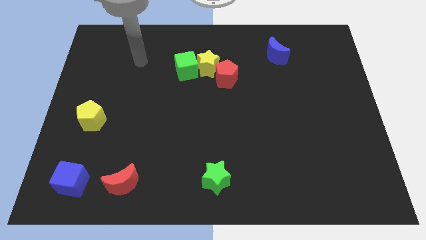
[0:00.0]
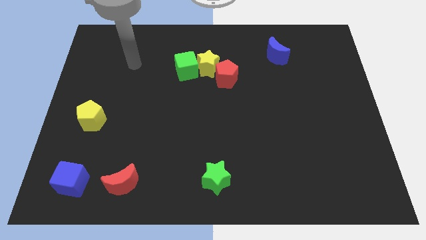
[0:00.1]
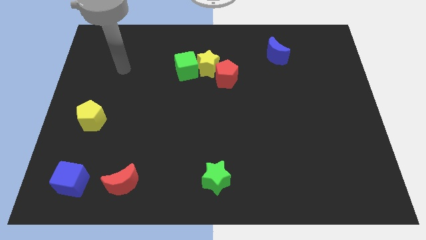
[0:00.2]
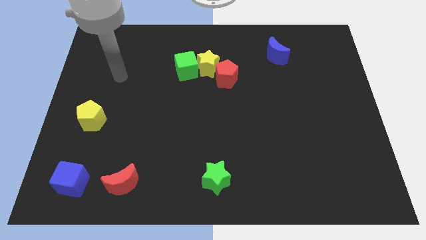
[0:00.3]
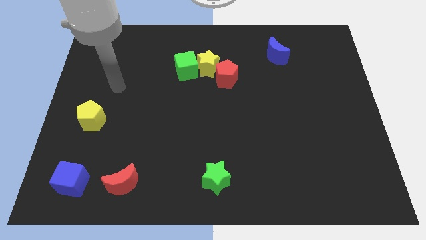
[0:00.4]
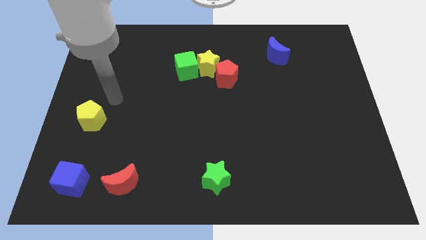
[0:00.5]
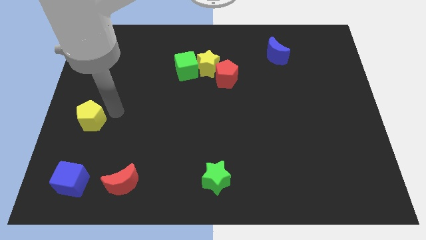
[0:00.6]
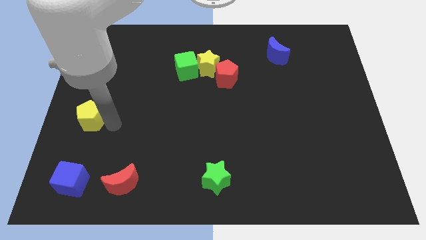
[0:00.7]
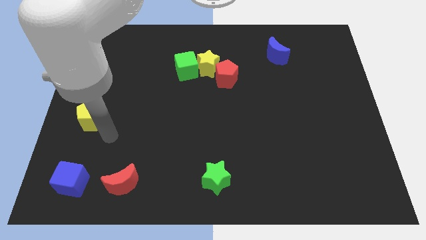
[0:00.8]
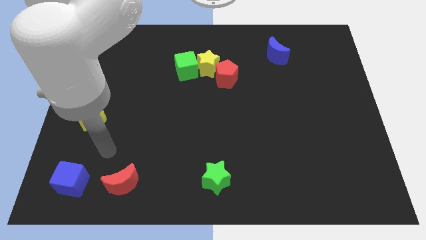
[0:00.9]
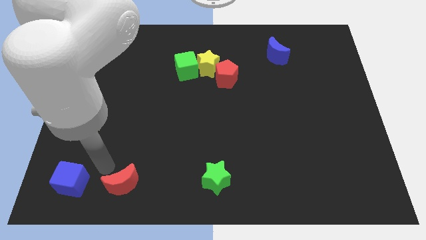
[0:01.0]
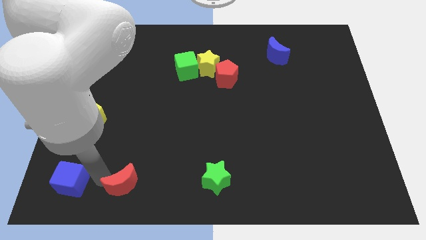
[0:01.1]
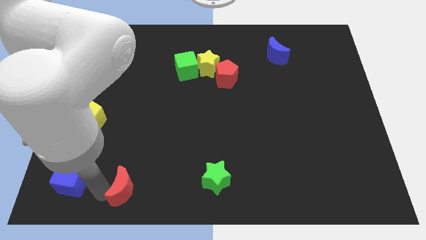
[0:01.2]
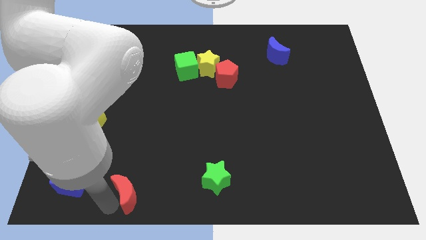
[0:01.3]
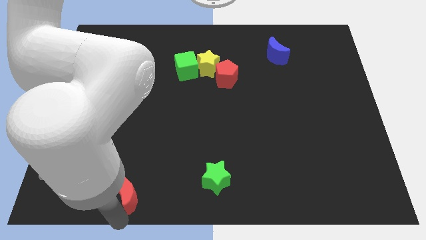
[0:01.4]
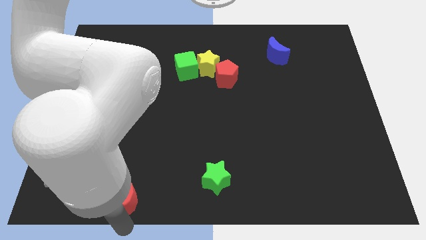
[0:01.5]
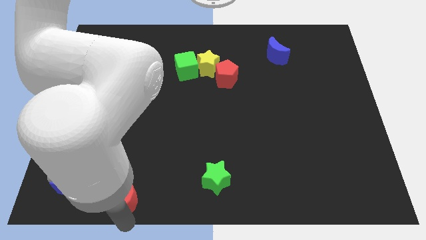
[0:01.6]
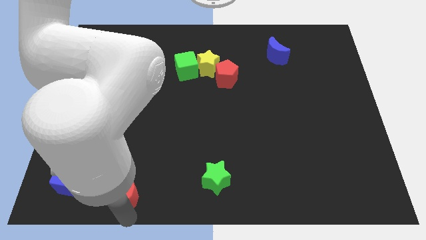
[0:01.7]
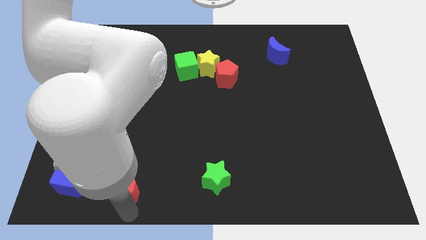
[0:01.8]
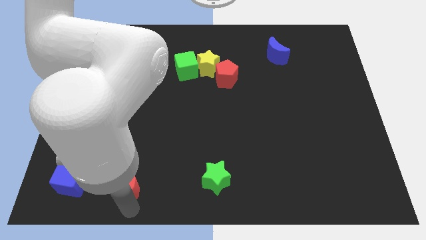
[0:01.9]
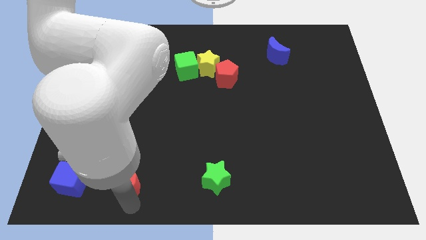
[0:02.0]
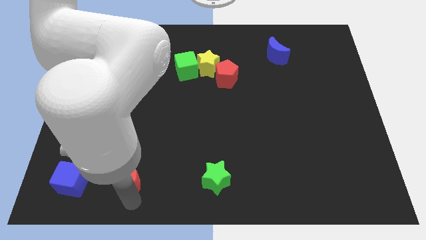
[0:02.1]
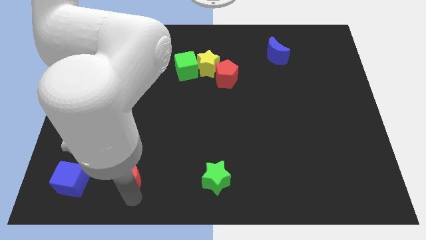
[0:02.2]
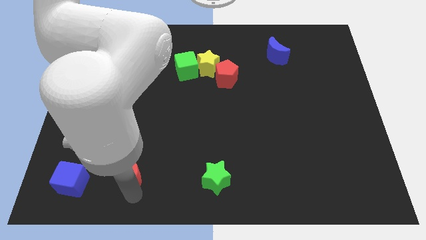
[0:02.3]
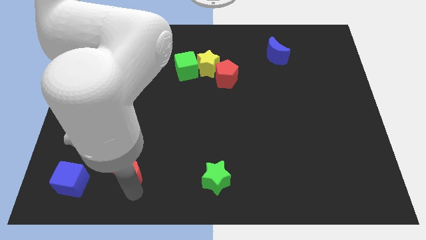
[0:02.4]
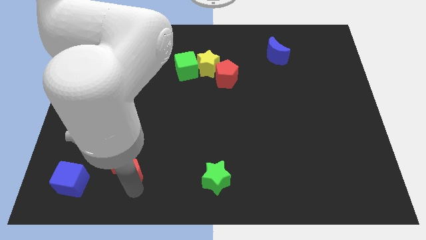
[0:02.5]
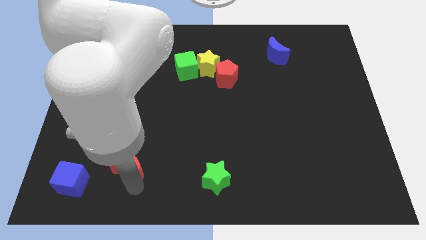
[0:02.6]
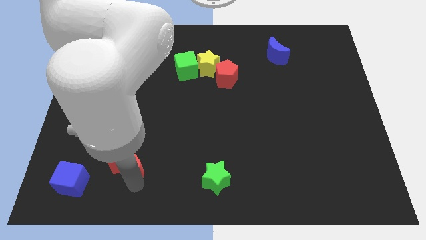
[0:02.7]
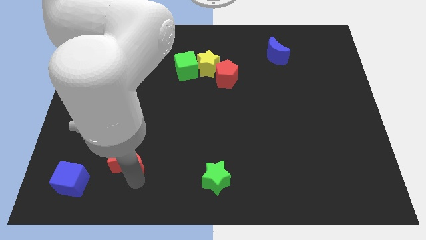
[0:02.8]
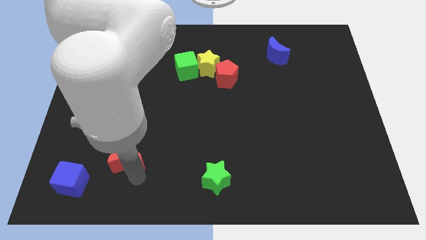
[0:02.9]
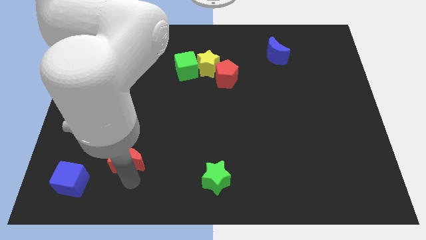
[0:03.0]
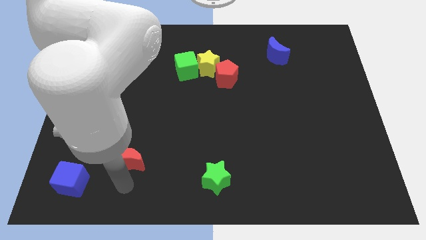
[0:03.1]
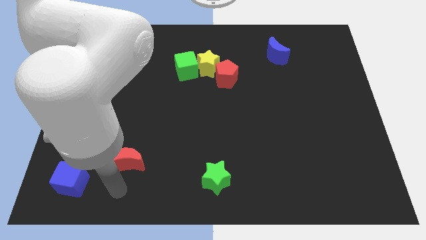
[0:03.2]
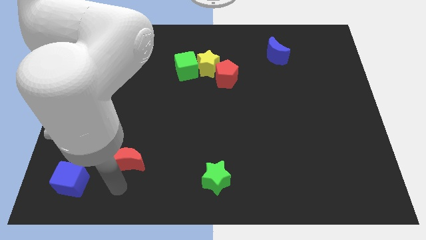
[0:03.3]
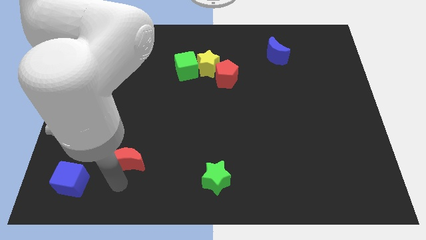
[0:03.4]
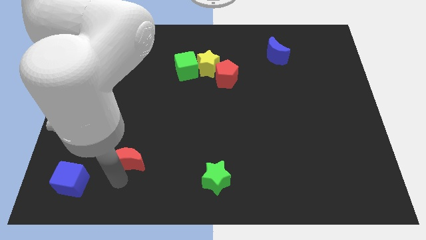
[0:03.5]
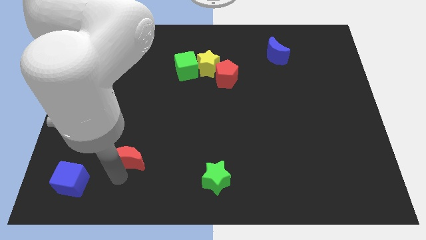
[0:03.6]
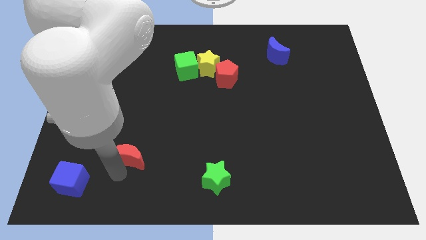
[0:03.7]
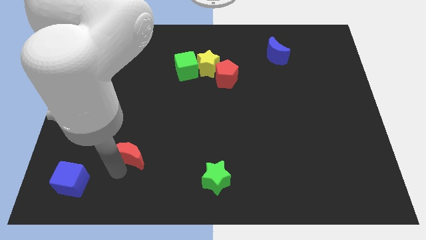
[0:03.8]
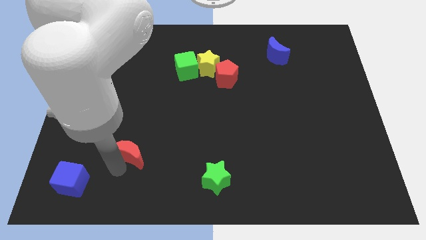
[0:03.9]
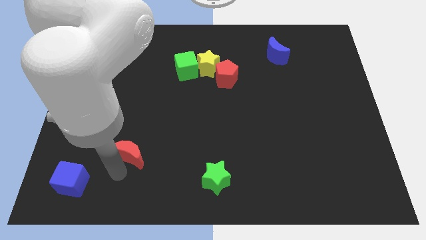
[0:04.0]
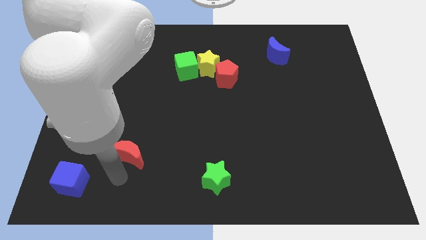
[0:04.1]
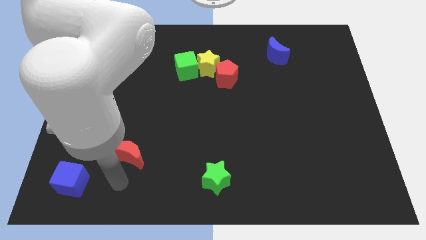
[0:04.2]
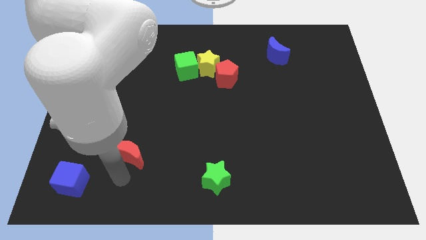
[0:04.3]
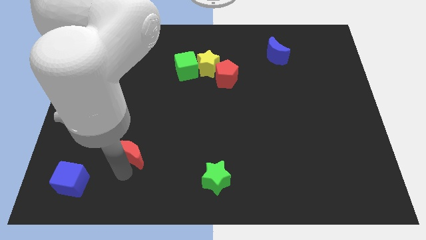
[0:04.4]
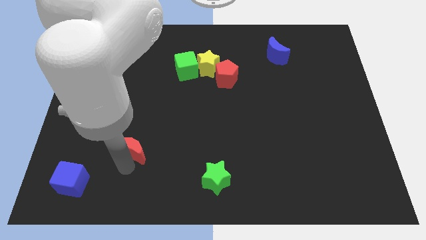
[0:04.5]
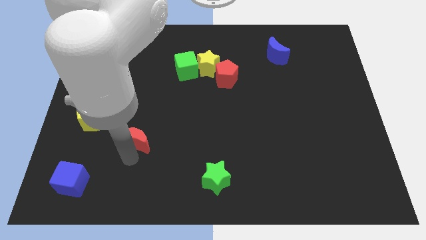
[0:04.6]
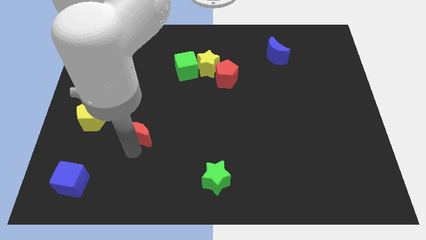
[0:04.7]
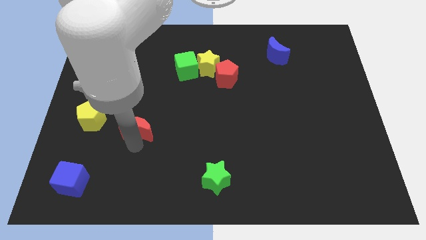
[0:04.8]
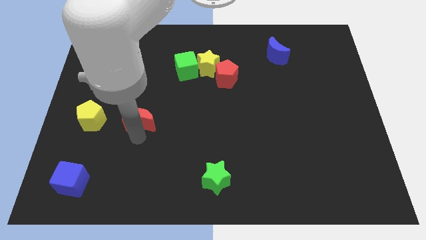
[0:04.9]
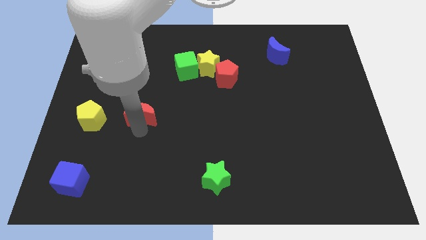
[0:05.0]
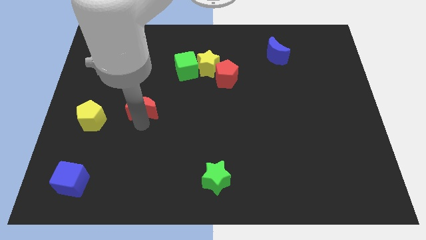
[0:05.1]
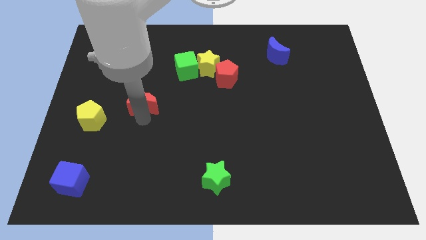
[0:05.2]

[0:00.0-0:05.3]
move the red moon upwards

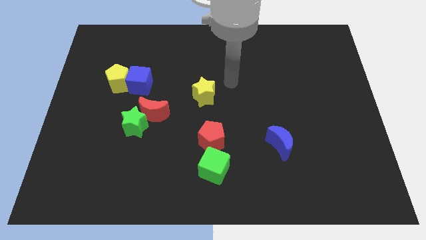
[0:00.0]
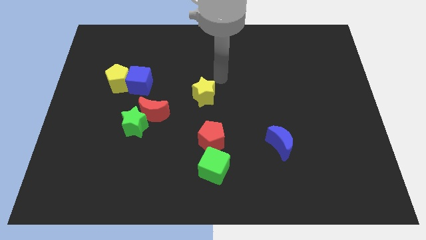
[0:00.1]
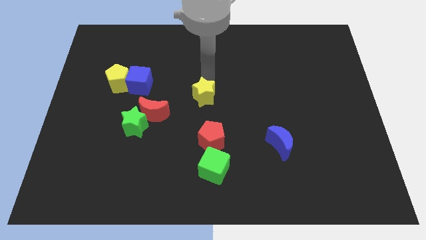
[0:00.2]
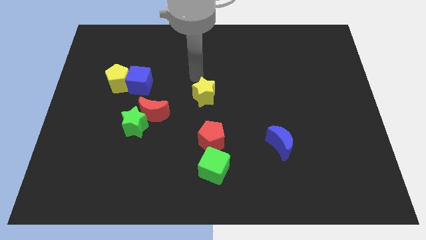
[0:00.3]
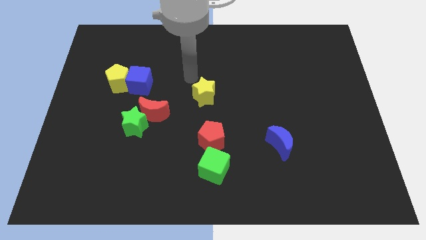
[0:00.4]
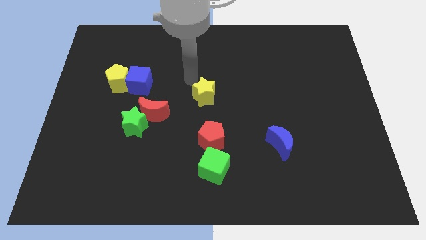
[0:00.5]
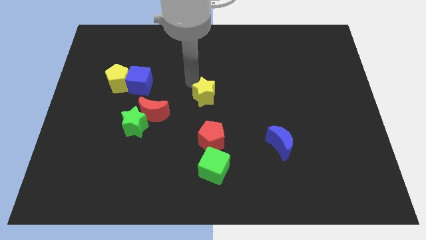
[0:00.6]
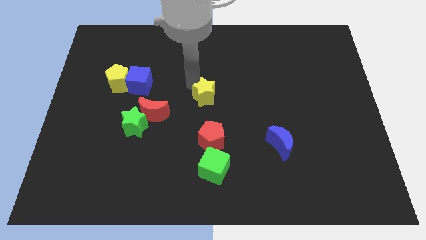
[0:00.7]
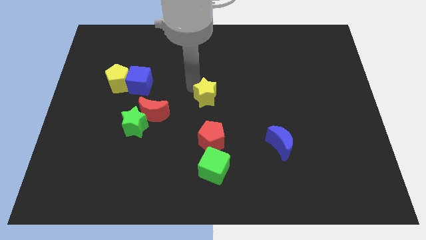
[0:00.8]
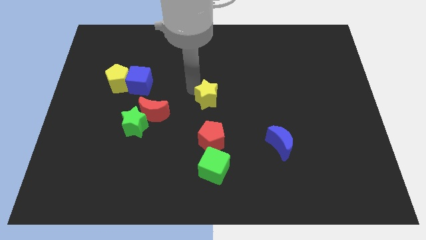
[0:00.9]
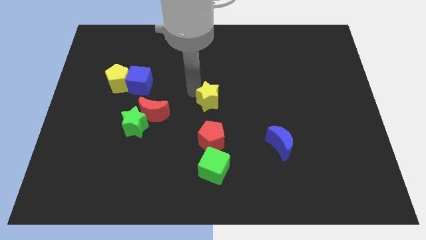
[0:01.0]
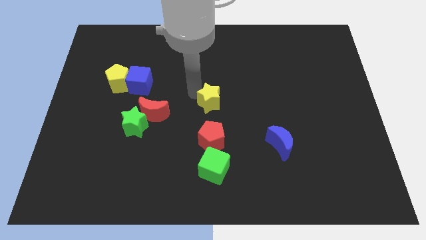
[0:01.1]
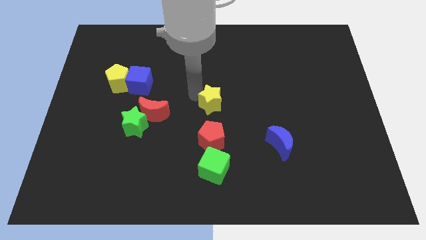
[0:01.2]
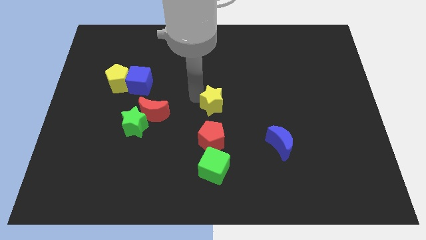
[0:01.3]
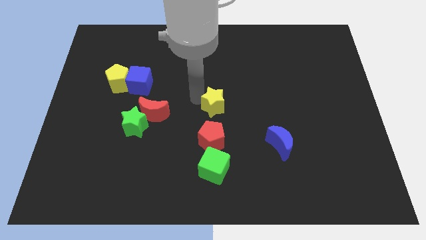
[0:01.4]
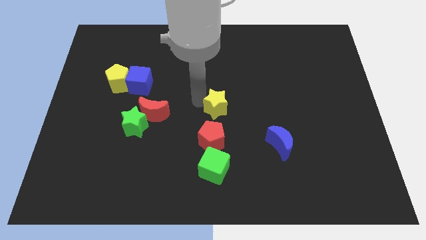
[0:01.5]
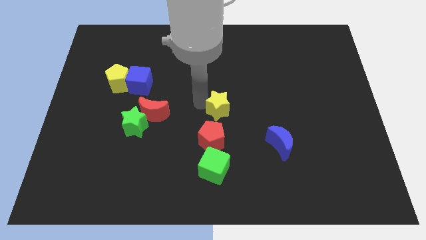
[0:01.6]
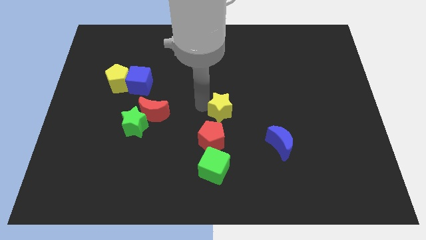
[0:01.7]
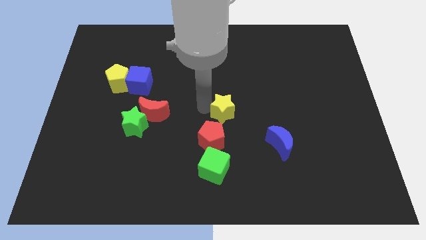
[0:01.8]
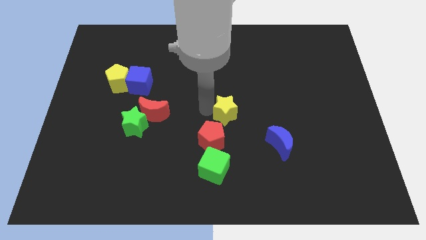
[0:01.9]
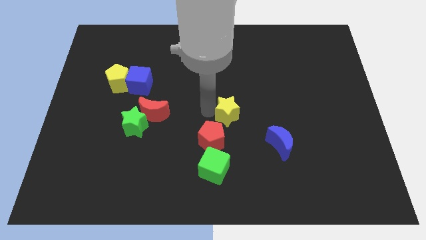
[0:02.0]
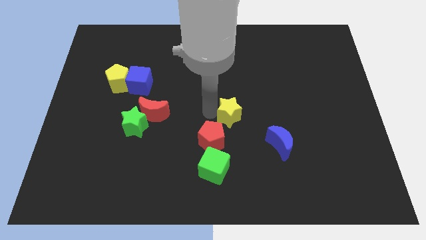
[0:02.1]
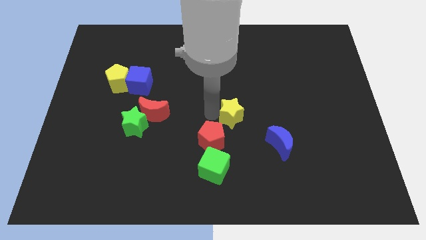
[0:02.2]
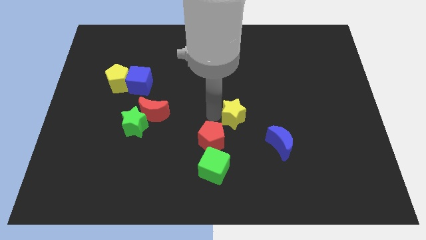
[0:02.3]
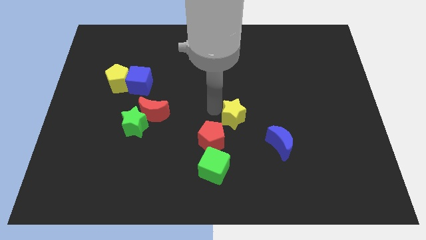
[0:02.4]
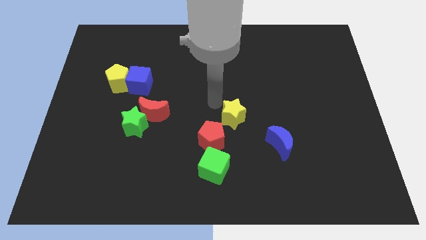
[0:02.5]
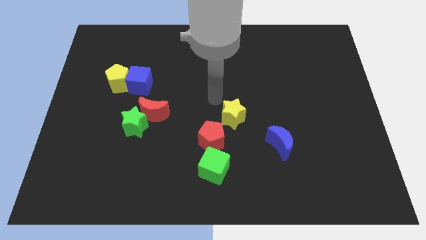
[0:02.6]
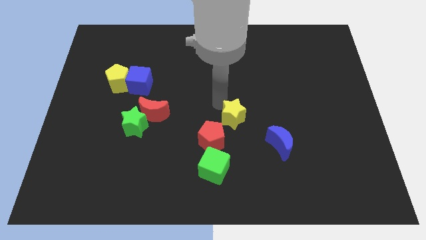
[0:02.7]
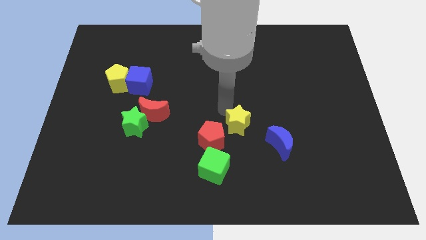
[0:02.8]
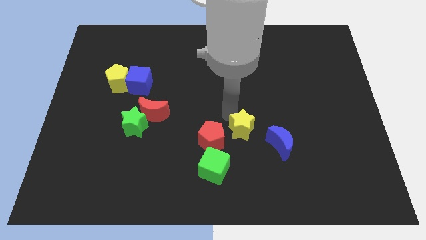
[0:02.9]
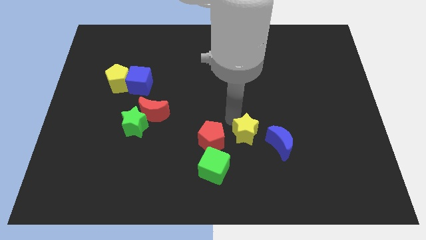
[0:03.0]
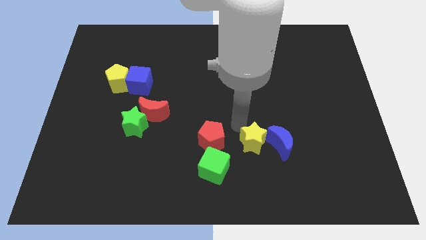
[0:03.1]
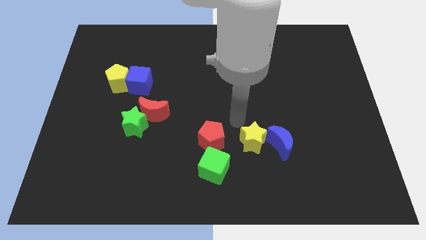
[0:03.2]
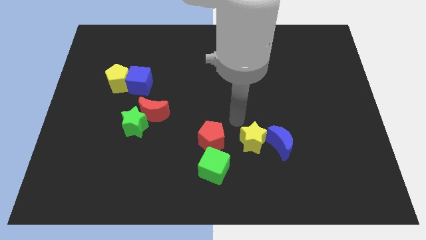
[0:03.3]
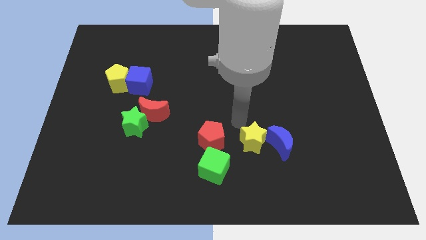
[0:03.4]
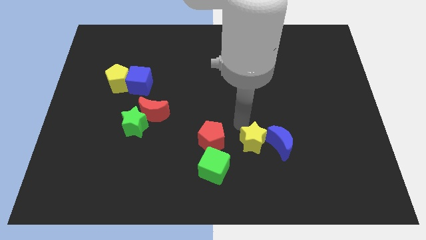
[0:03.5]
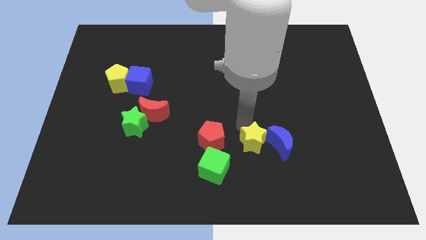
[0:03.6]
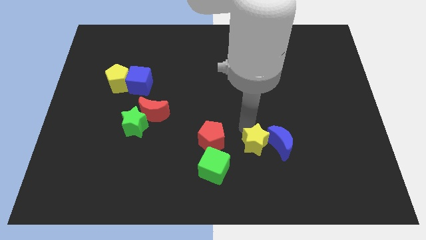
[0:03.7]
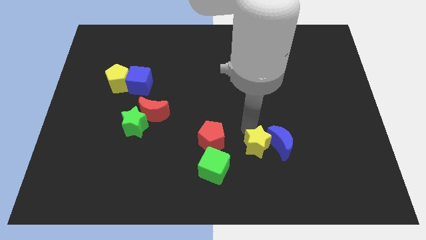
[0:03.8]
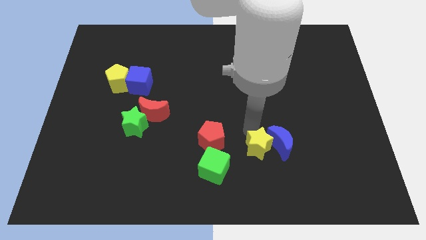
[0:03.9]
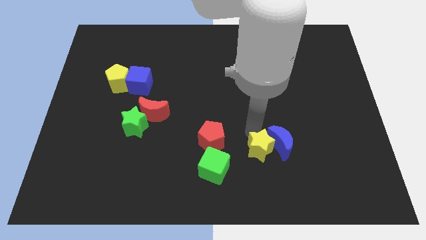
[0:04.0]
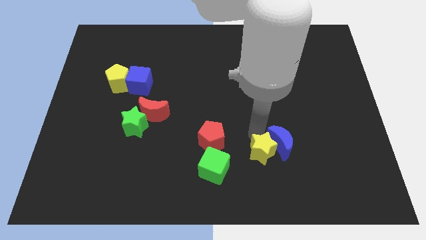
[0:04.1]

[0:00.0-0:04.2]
push the yellow star diagonally down and right
